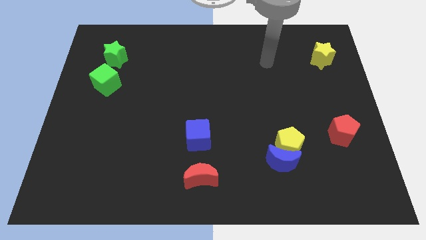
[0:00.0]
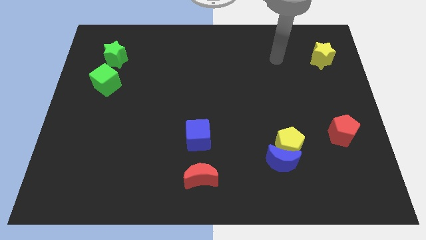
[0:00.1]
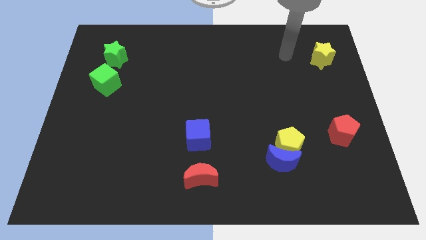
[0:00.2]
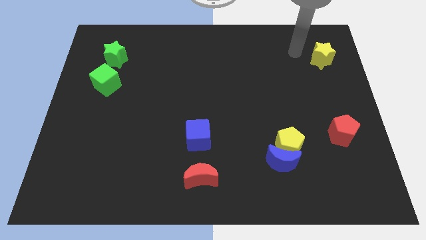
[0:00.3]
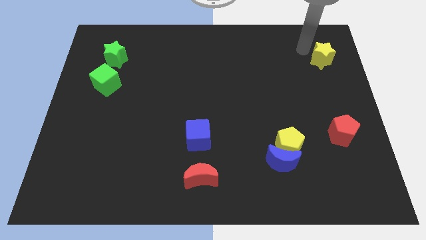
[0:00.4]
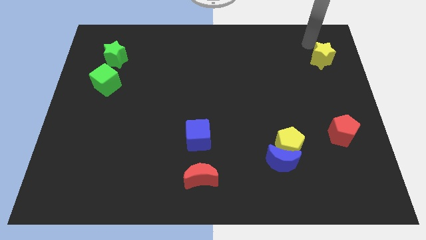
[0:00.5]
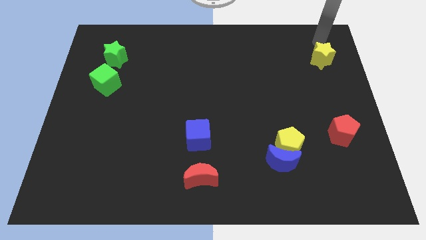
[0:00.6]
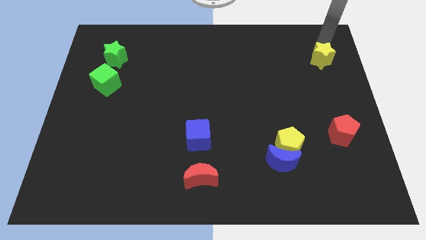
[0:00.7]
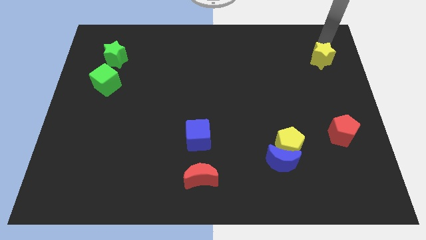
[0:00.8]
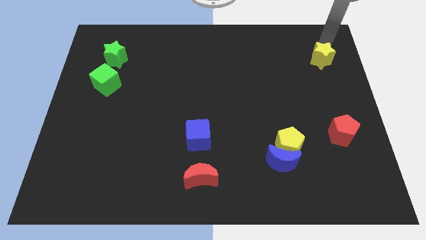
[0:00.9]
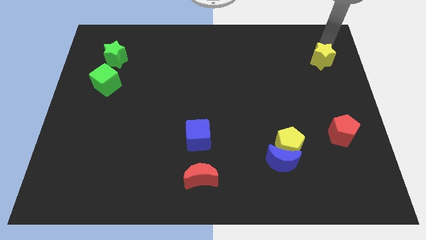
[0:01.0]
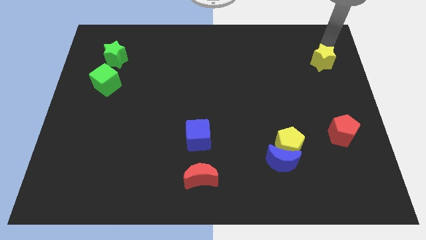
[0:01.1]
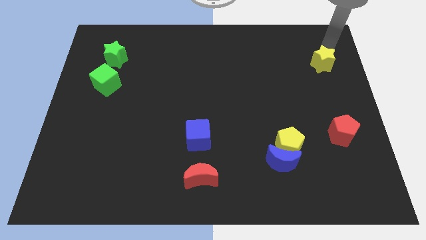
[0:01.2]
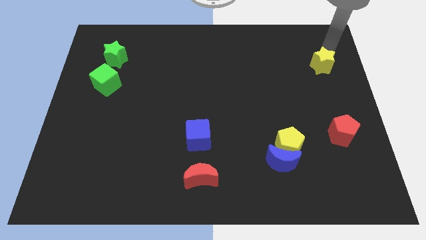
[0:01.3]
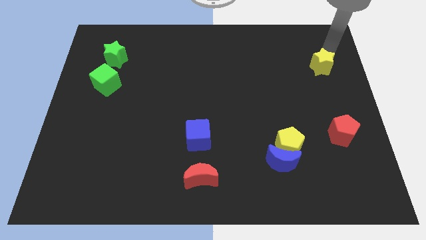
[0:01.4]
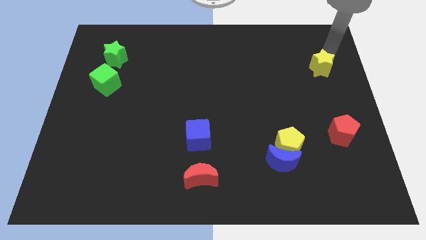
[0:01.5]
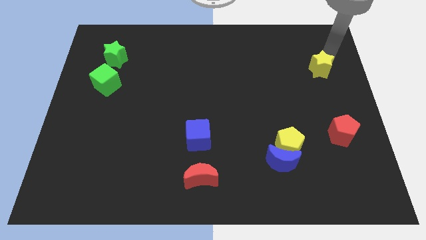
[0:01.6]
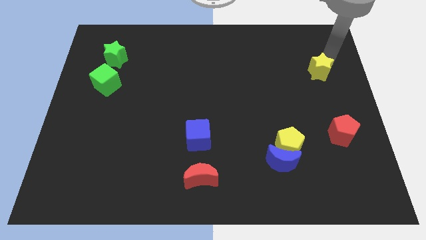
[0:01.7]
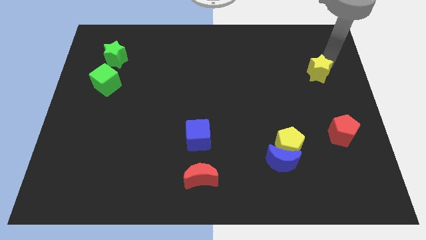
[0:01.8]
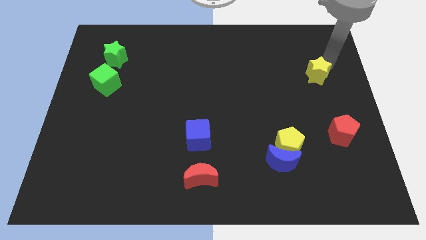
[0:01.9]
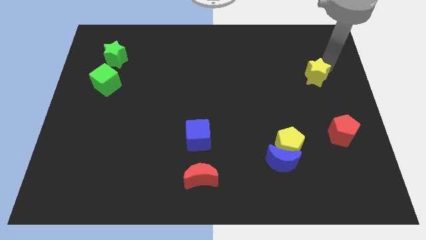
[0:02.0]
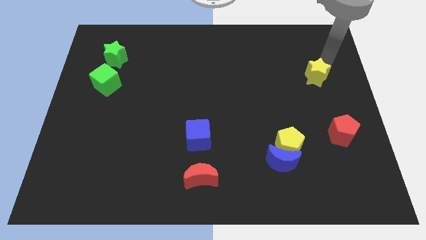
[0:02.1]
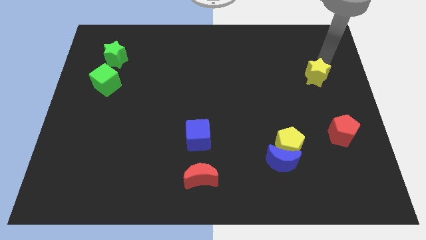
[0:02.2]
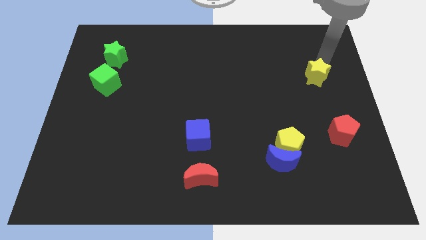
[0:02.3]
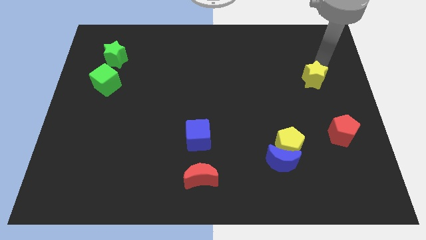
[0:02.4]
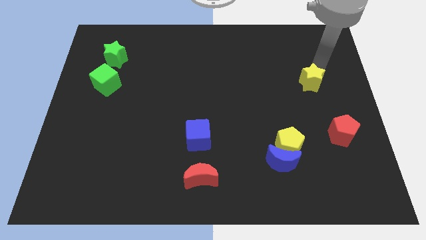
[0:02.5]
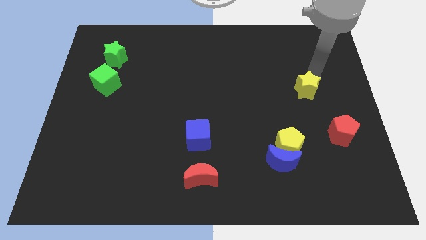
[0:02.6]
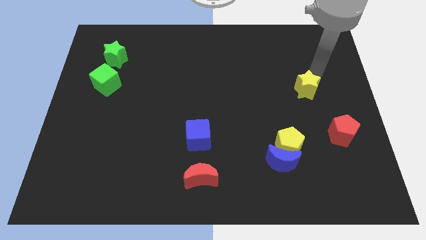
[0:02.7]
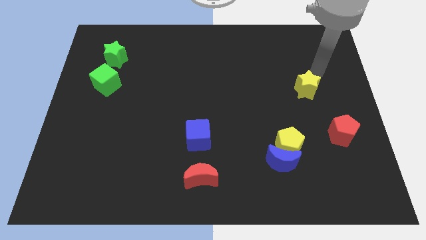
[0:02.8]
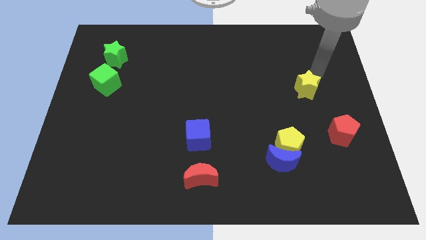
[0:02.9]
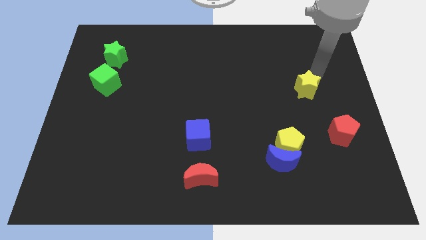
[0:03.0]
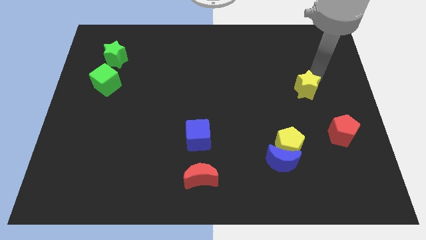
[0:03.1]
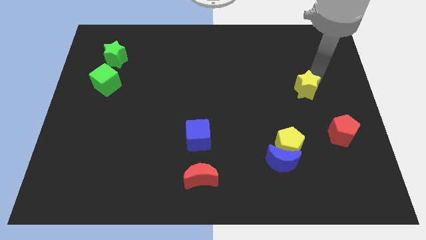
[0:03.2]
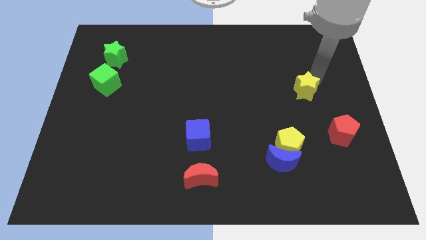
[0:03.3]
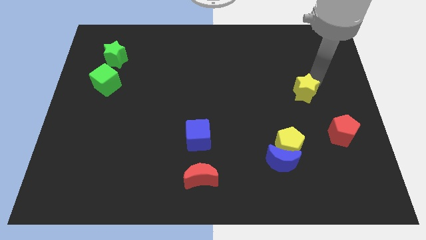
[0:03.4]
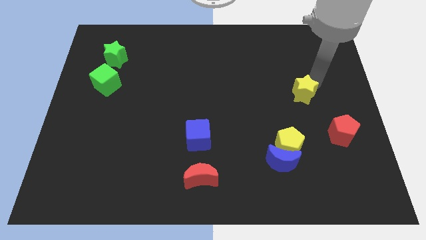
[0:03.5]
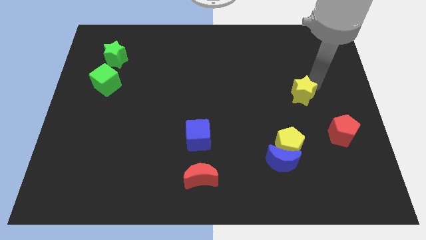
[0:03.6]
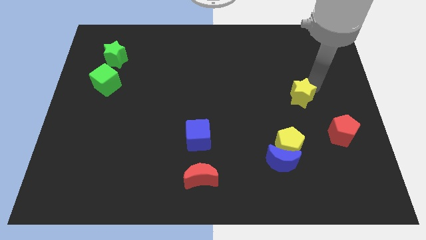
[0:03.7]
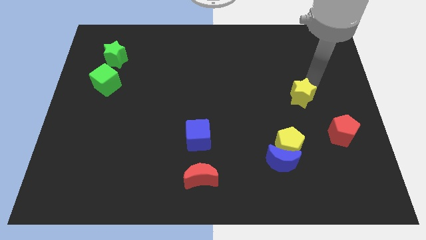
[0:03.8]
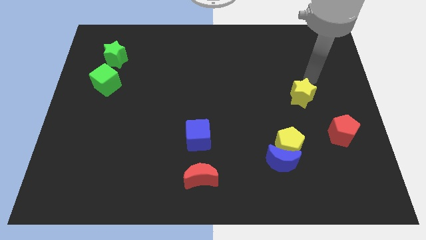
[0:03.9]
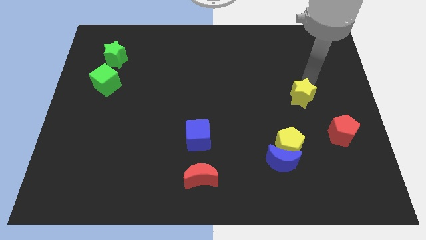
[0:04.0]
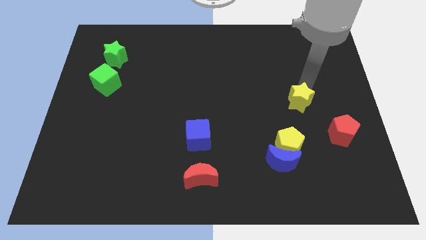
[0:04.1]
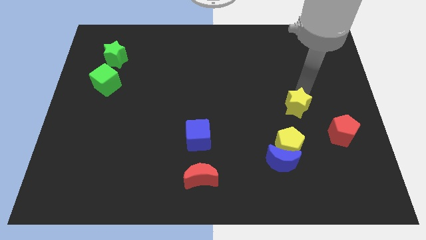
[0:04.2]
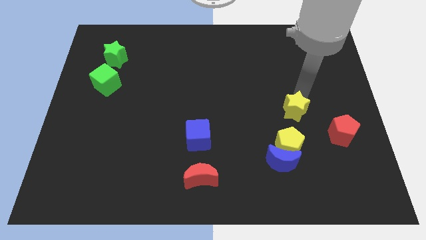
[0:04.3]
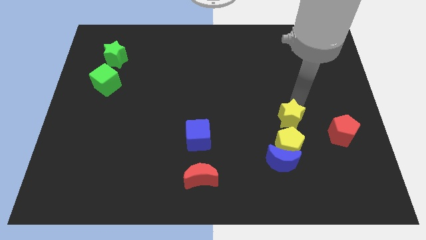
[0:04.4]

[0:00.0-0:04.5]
slide the yellow star to the left side of the red pentagon

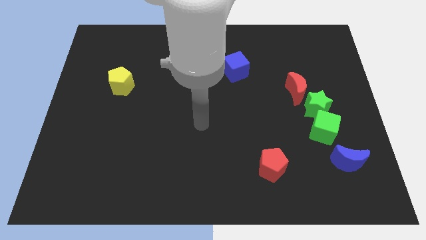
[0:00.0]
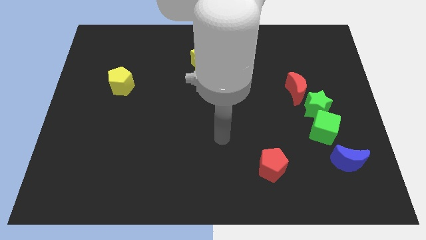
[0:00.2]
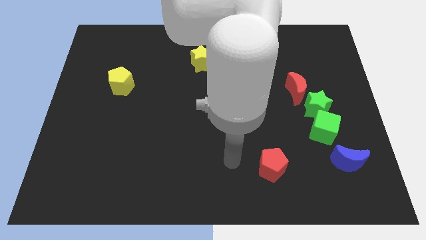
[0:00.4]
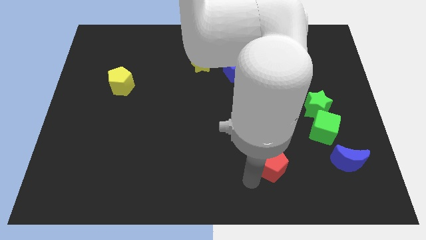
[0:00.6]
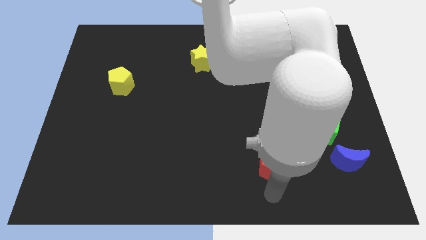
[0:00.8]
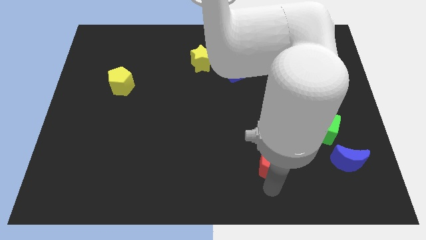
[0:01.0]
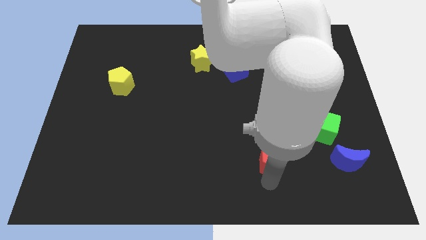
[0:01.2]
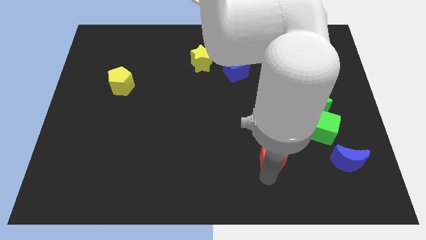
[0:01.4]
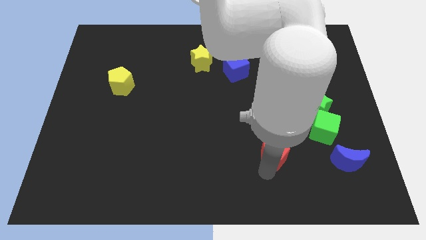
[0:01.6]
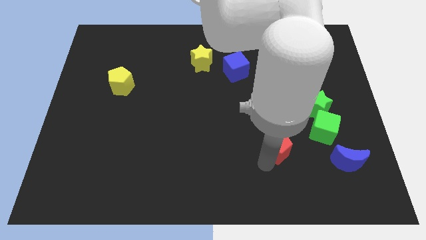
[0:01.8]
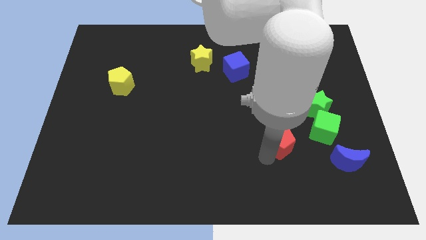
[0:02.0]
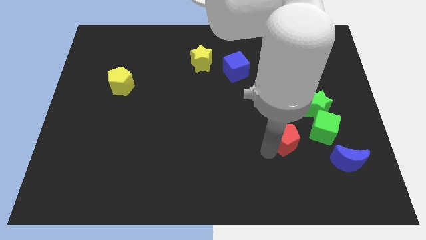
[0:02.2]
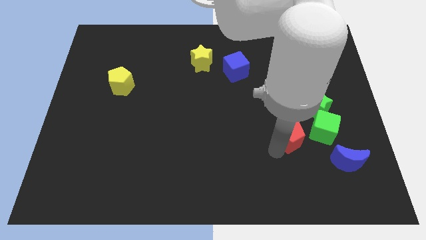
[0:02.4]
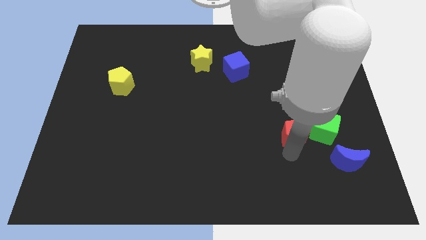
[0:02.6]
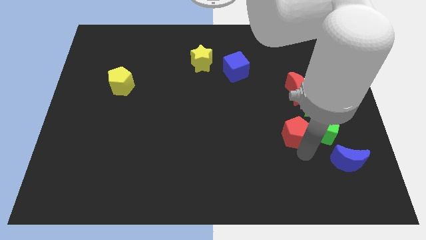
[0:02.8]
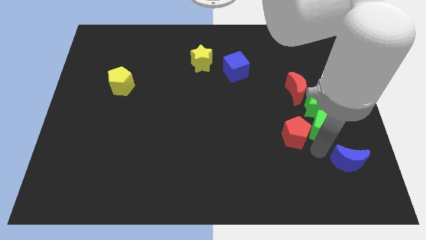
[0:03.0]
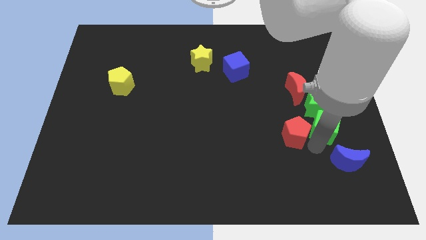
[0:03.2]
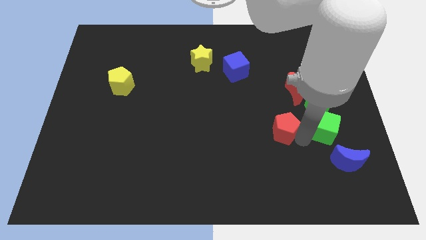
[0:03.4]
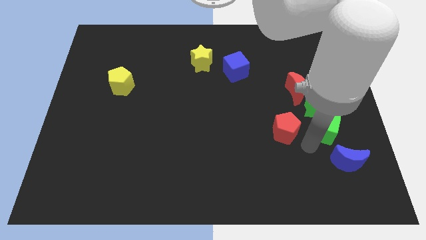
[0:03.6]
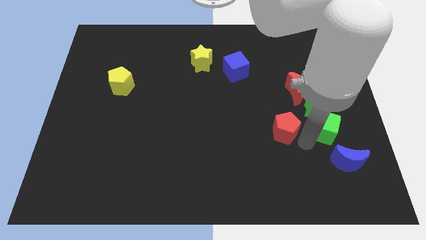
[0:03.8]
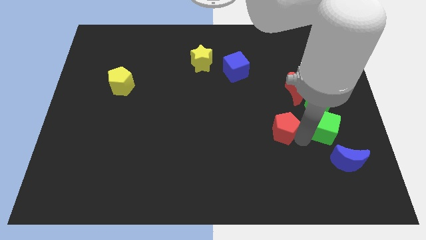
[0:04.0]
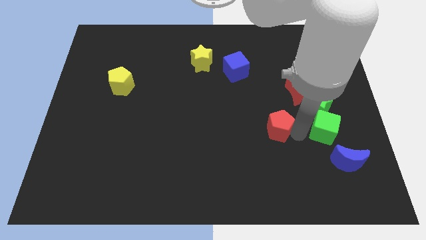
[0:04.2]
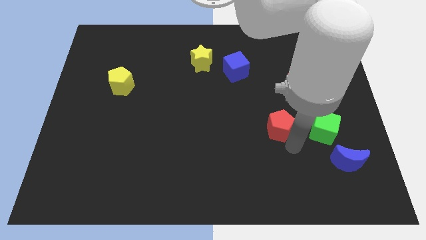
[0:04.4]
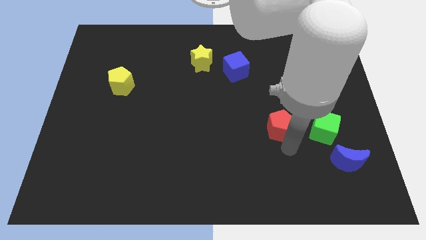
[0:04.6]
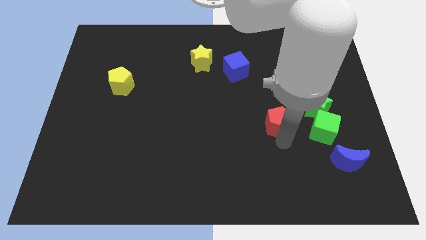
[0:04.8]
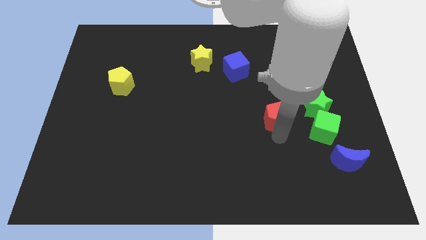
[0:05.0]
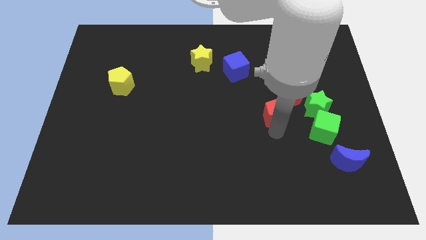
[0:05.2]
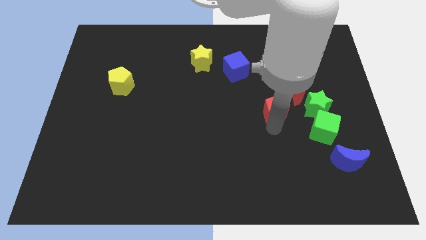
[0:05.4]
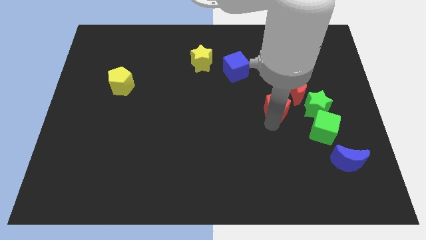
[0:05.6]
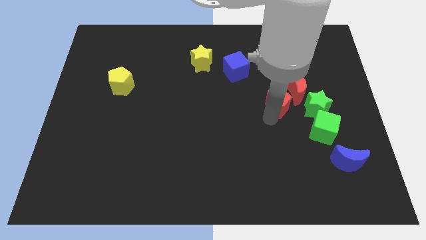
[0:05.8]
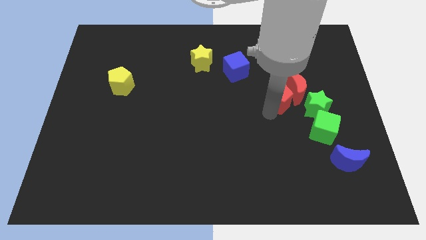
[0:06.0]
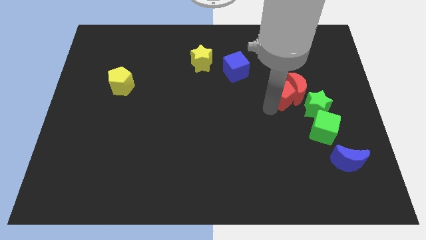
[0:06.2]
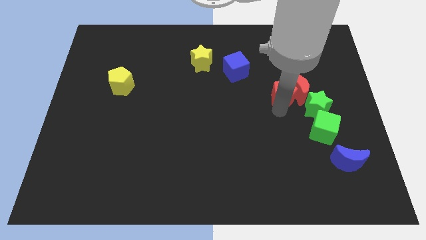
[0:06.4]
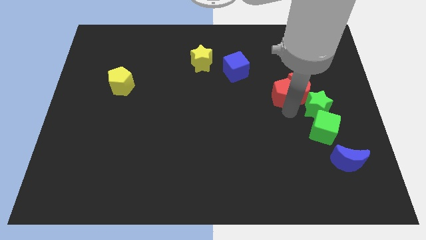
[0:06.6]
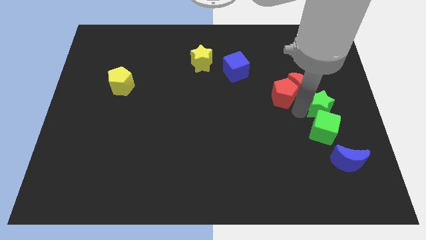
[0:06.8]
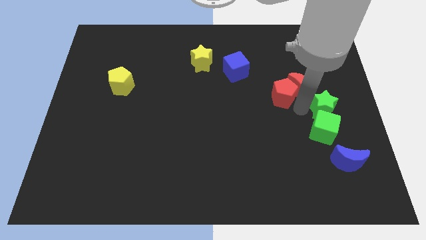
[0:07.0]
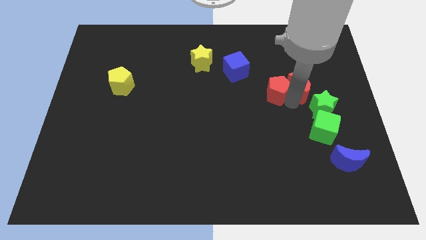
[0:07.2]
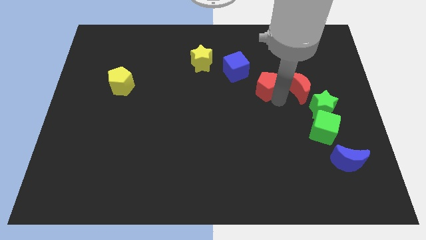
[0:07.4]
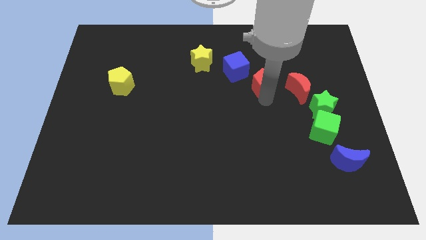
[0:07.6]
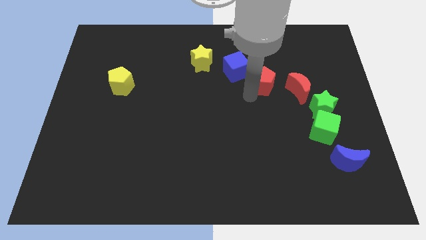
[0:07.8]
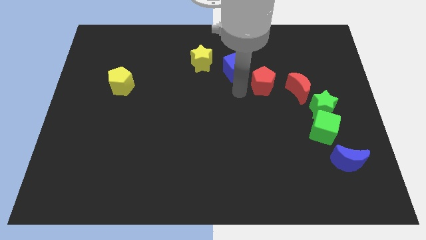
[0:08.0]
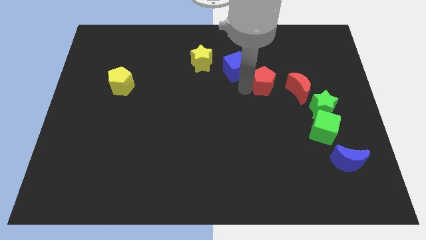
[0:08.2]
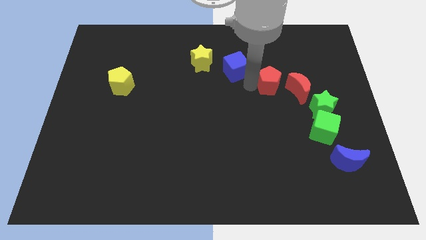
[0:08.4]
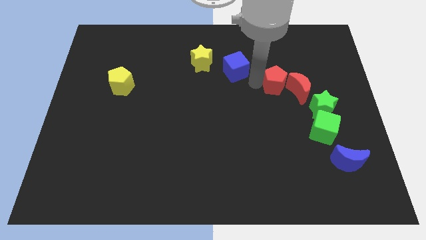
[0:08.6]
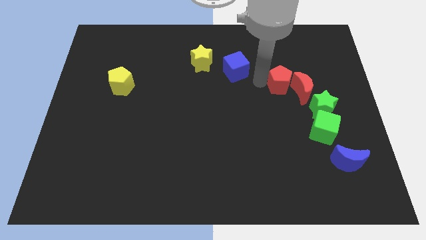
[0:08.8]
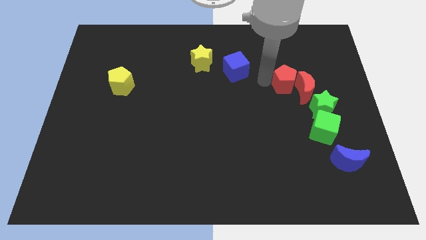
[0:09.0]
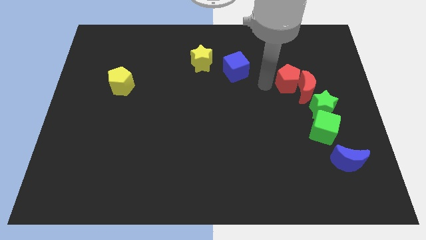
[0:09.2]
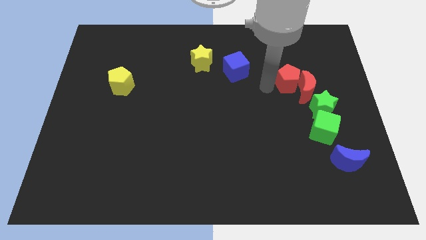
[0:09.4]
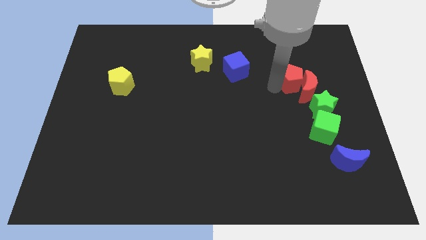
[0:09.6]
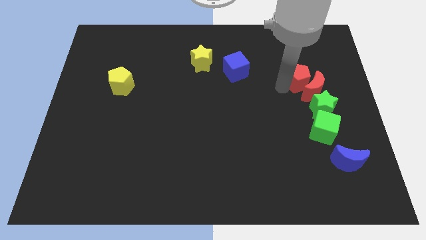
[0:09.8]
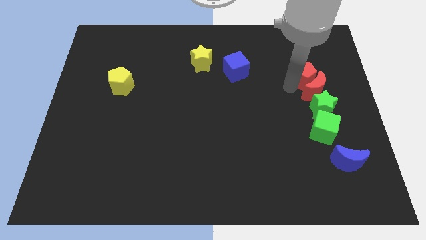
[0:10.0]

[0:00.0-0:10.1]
move the red pentagon to the top right of the red moon
